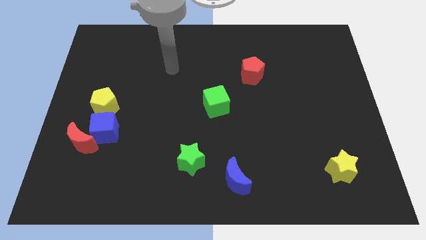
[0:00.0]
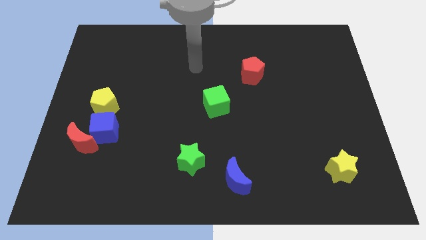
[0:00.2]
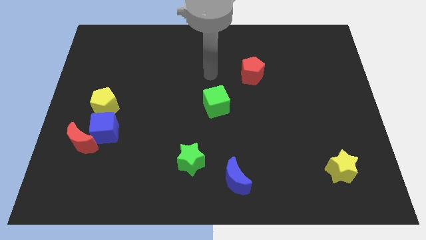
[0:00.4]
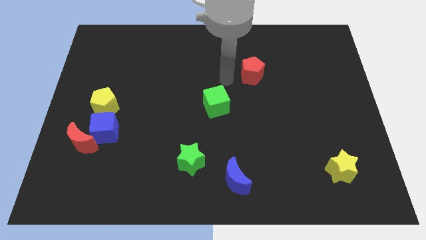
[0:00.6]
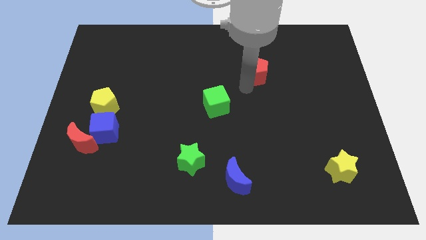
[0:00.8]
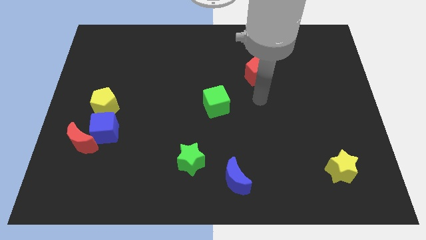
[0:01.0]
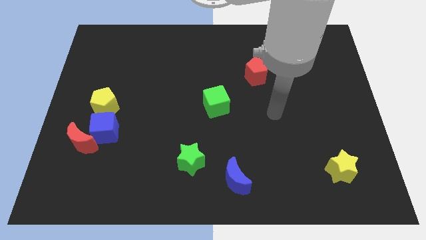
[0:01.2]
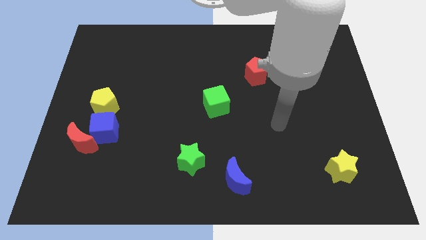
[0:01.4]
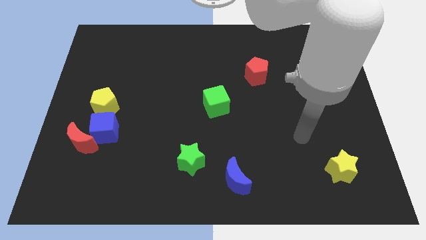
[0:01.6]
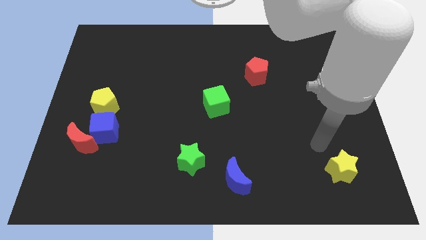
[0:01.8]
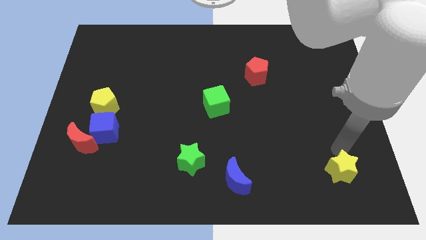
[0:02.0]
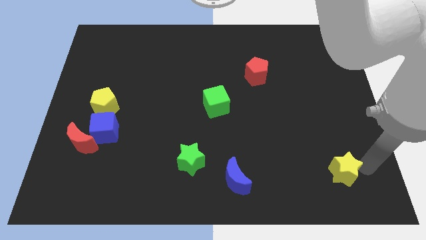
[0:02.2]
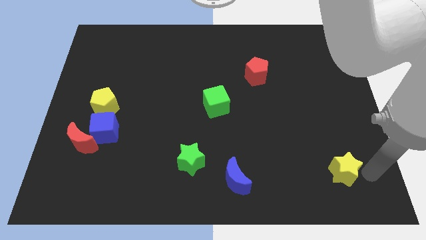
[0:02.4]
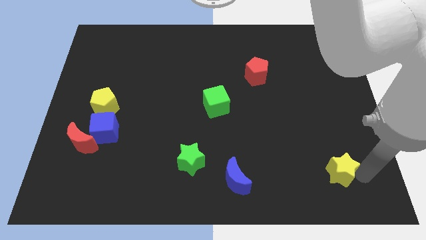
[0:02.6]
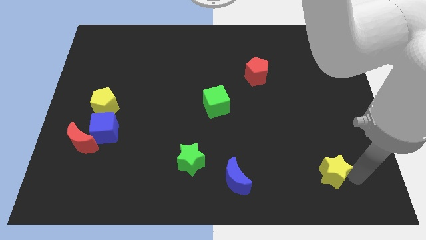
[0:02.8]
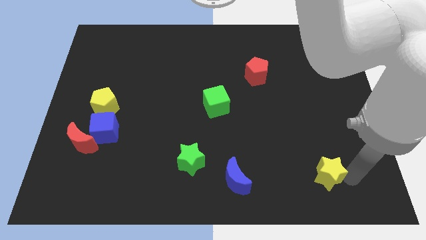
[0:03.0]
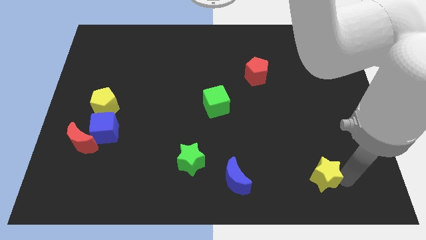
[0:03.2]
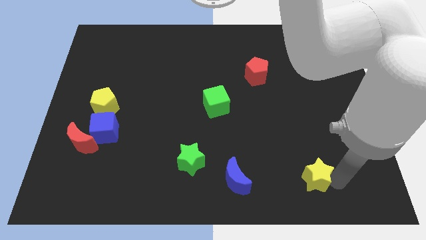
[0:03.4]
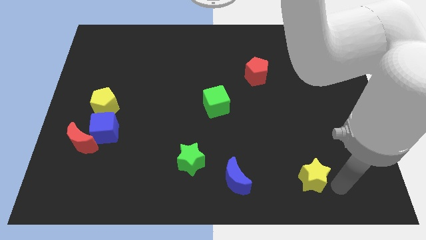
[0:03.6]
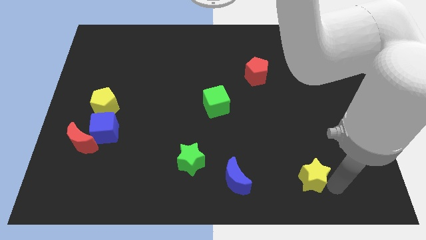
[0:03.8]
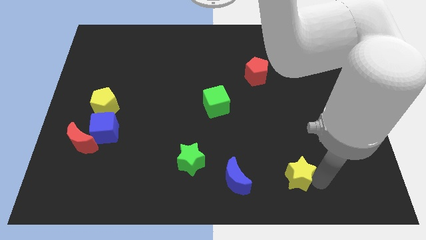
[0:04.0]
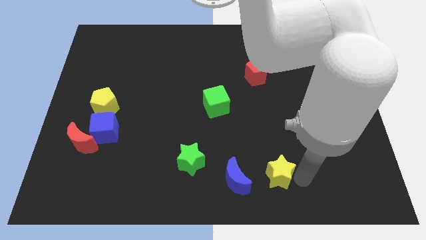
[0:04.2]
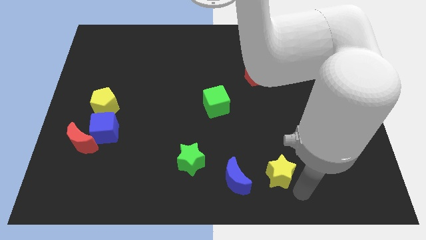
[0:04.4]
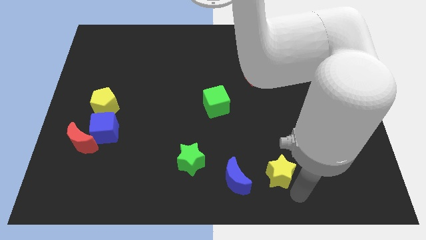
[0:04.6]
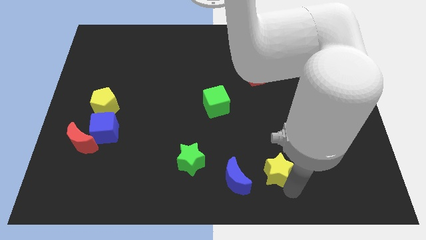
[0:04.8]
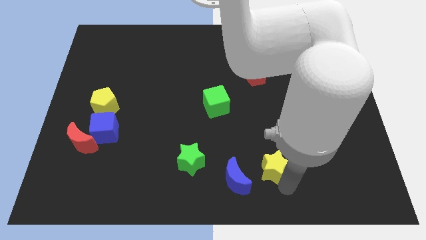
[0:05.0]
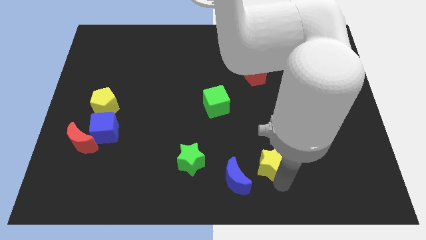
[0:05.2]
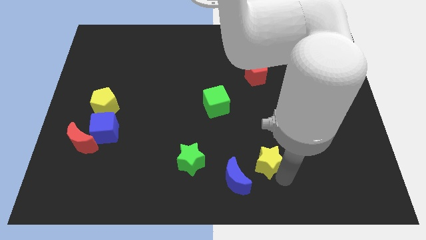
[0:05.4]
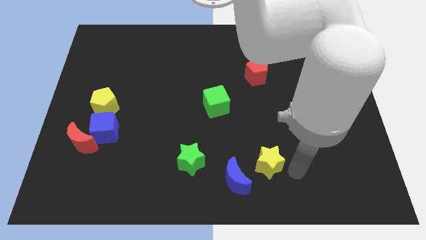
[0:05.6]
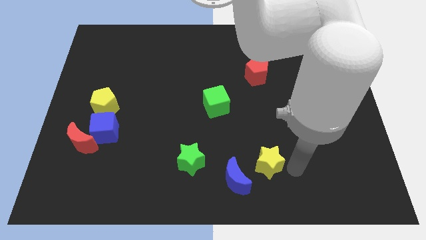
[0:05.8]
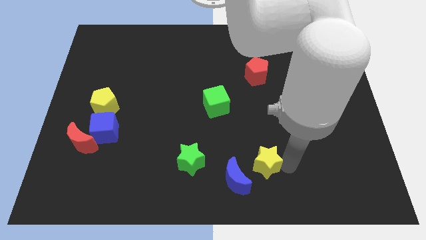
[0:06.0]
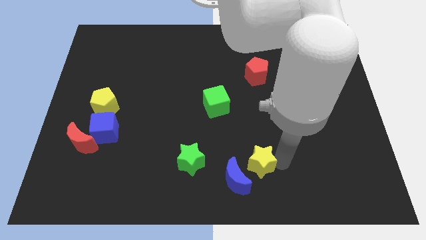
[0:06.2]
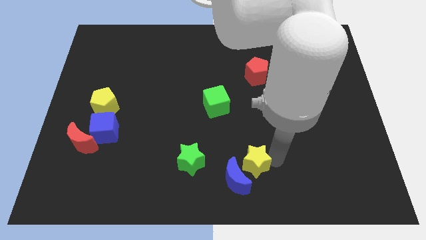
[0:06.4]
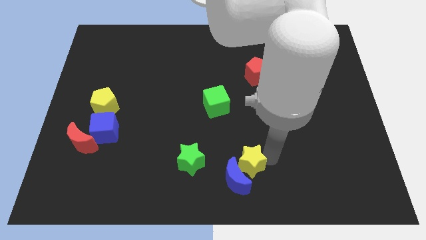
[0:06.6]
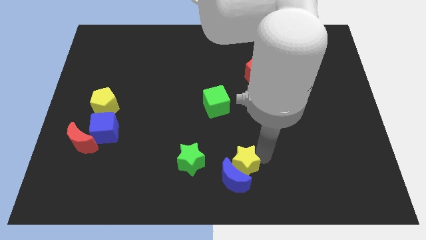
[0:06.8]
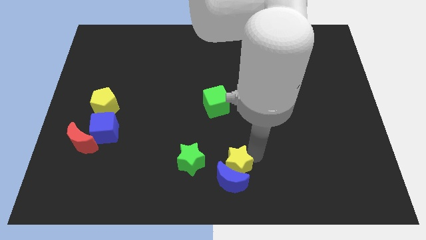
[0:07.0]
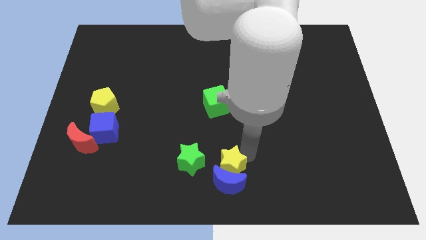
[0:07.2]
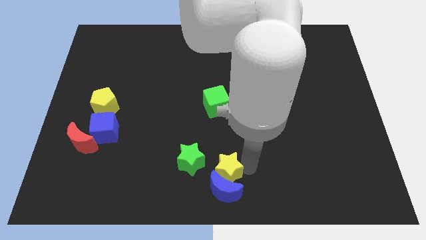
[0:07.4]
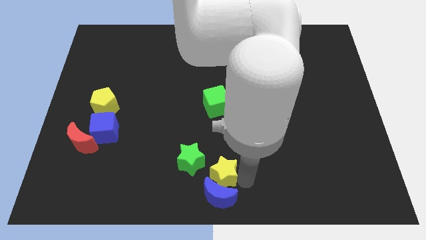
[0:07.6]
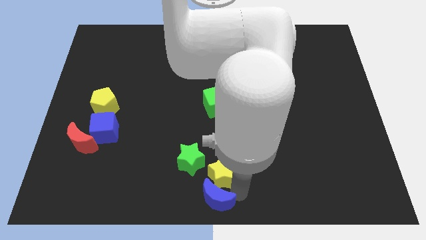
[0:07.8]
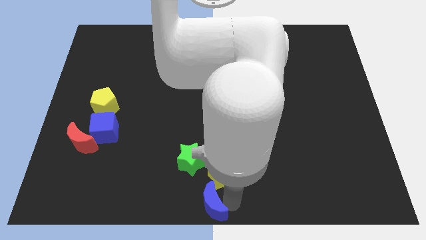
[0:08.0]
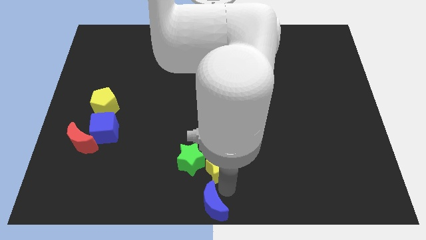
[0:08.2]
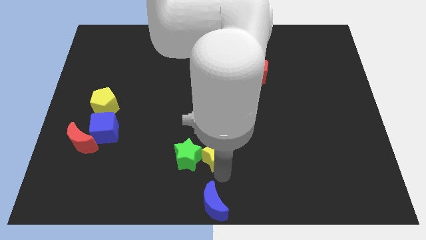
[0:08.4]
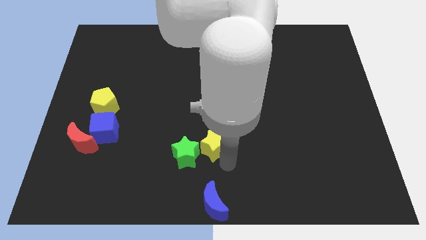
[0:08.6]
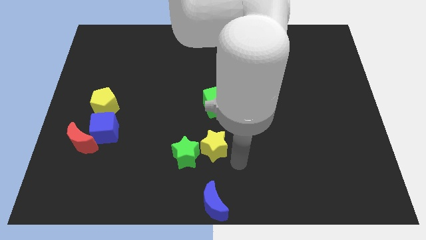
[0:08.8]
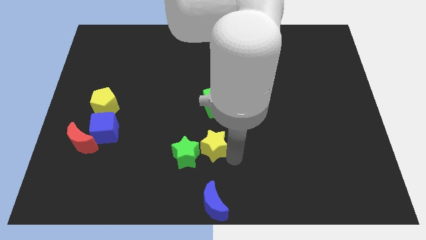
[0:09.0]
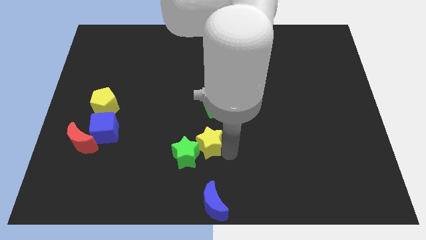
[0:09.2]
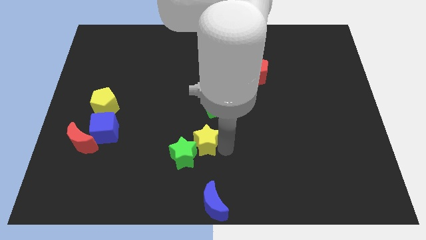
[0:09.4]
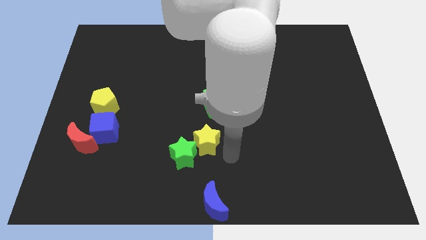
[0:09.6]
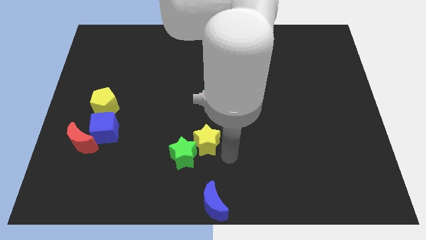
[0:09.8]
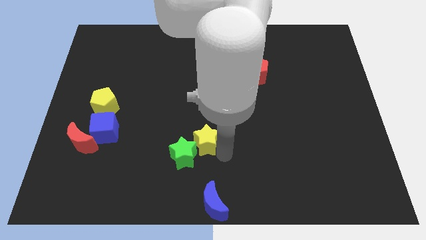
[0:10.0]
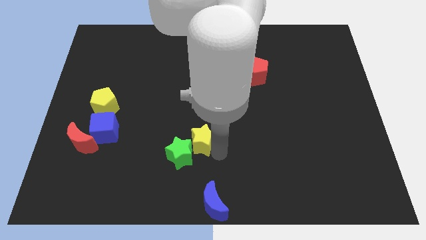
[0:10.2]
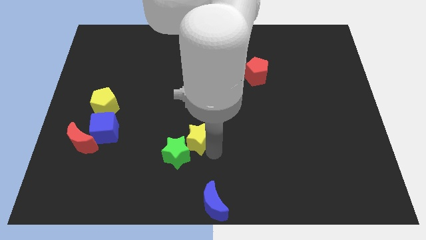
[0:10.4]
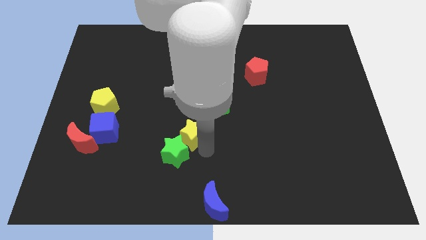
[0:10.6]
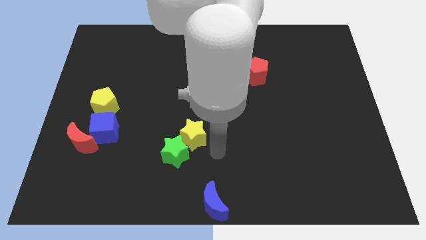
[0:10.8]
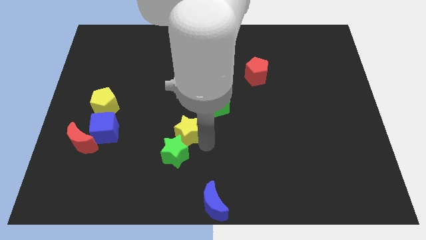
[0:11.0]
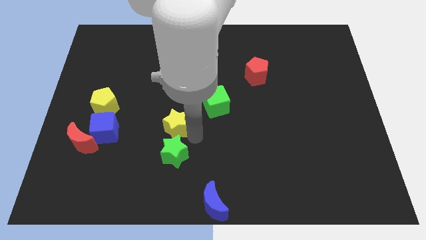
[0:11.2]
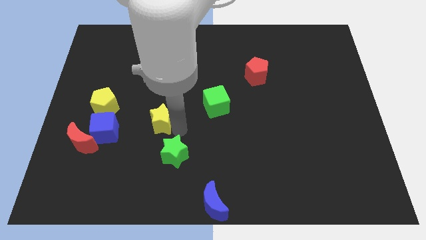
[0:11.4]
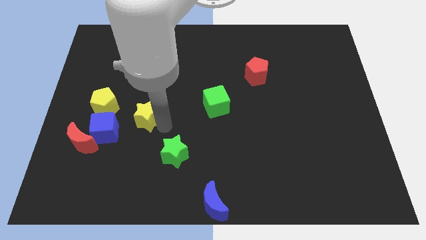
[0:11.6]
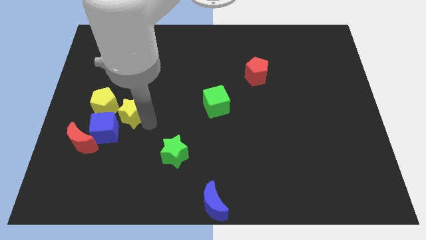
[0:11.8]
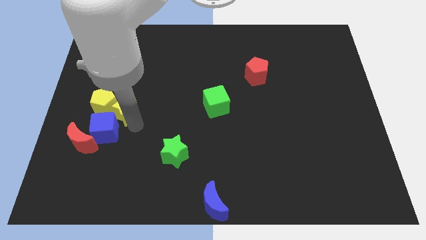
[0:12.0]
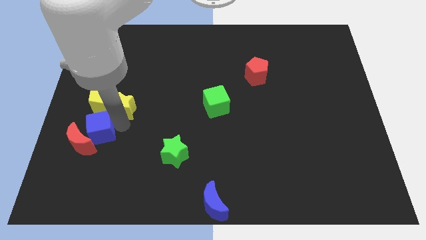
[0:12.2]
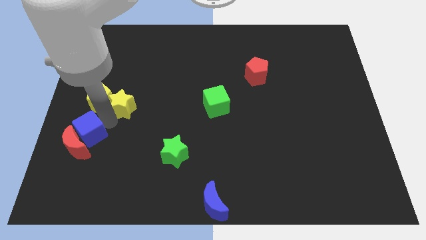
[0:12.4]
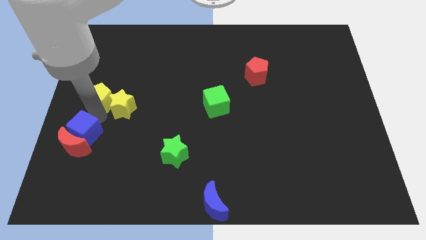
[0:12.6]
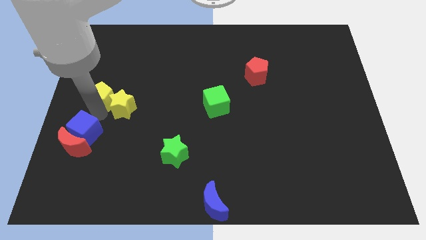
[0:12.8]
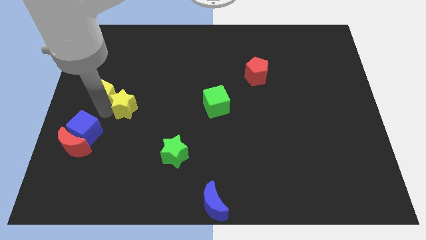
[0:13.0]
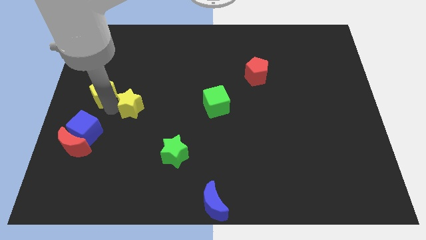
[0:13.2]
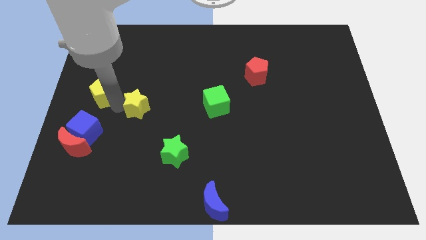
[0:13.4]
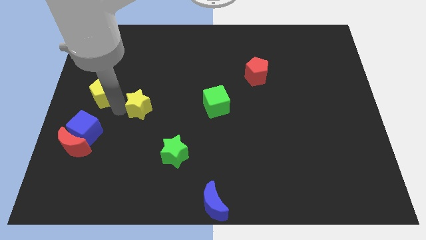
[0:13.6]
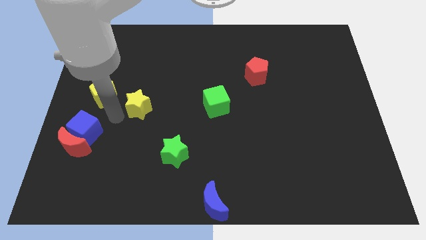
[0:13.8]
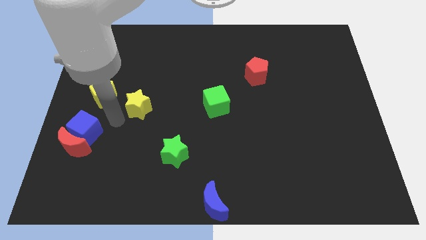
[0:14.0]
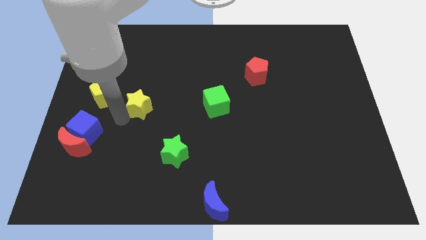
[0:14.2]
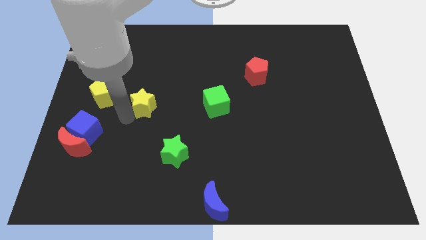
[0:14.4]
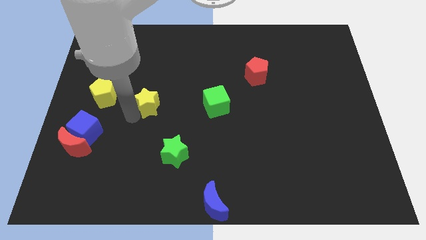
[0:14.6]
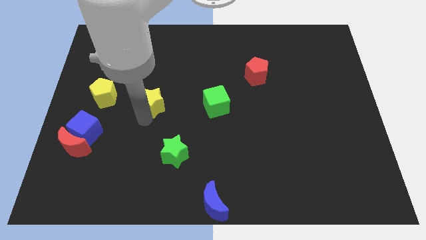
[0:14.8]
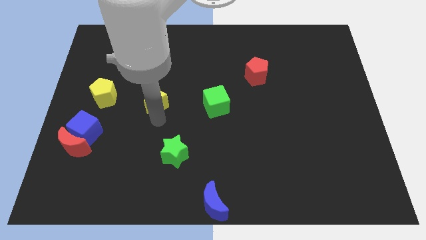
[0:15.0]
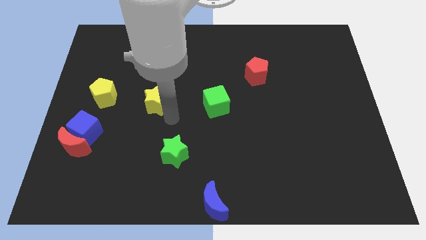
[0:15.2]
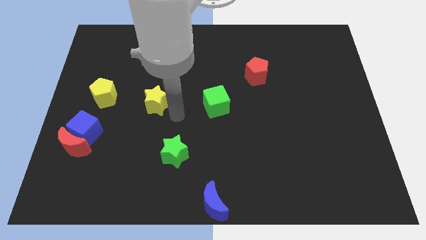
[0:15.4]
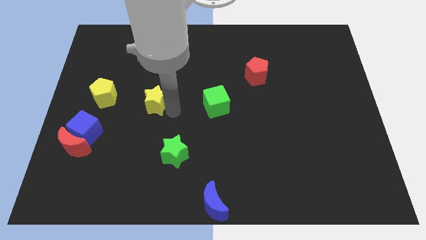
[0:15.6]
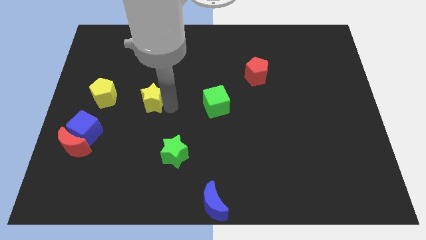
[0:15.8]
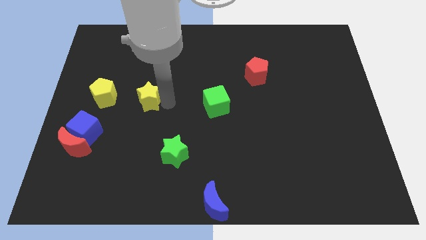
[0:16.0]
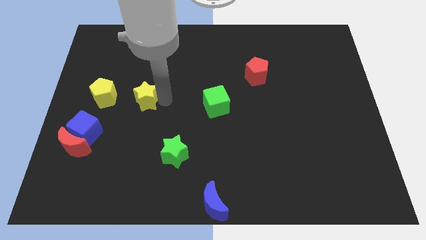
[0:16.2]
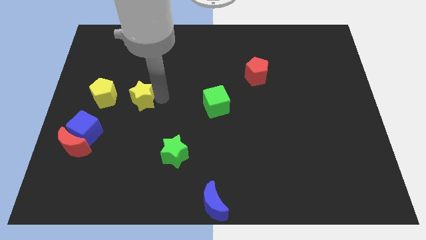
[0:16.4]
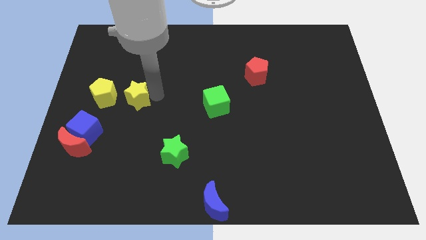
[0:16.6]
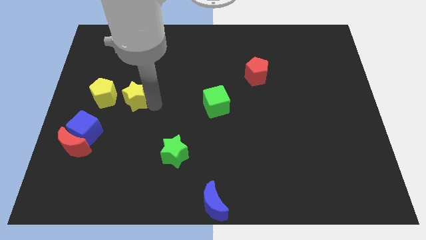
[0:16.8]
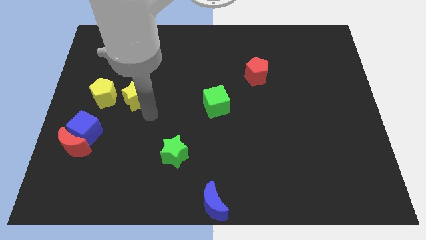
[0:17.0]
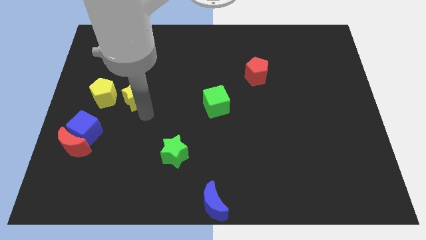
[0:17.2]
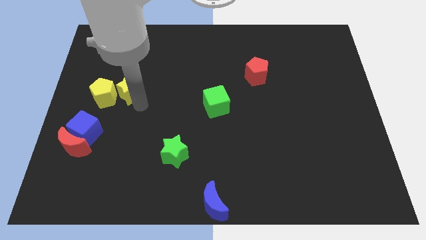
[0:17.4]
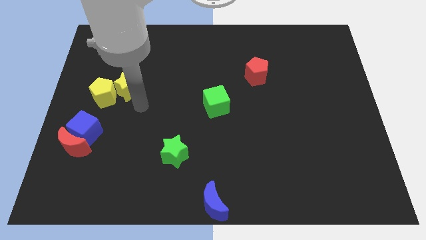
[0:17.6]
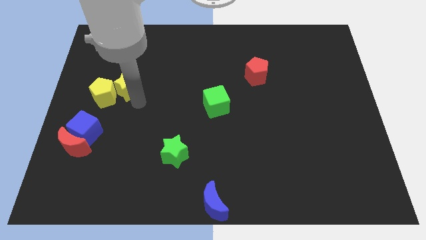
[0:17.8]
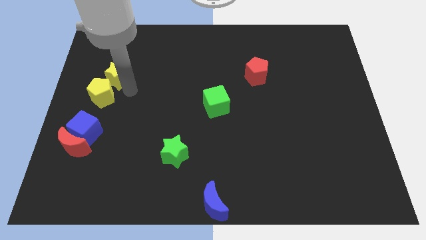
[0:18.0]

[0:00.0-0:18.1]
put the yellow star above the yellow pentagon
